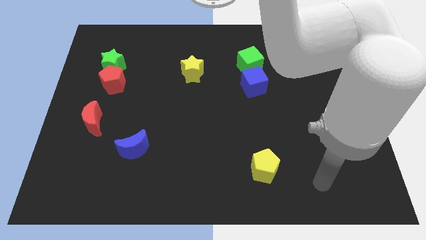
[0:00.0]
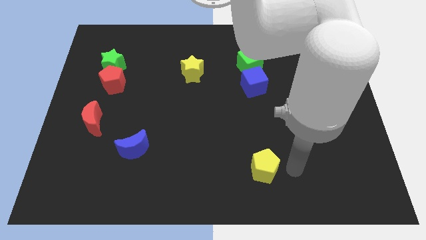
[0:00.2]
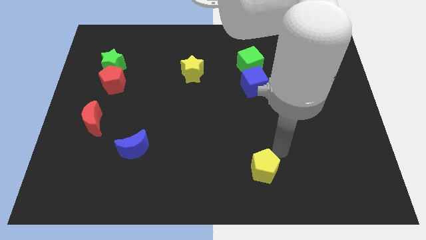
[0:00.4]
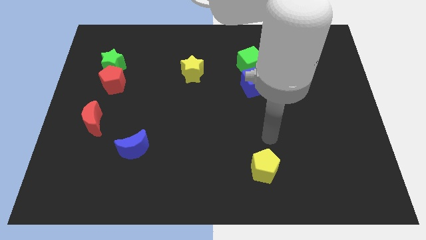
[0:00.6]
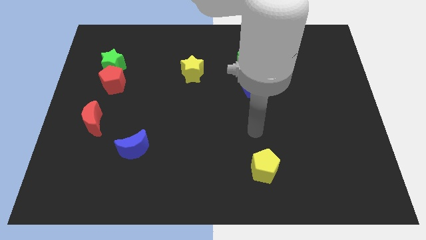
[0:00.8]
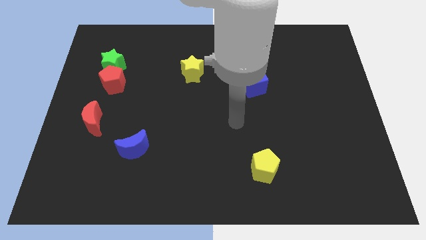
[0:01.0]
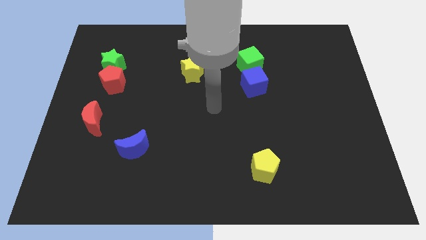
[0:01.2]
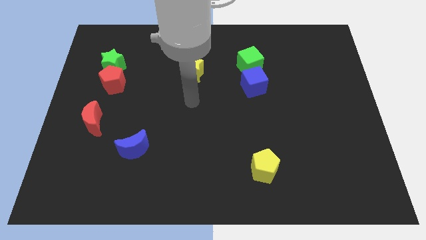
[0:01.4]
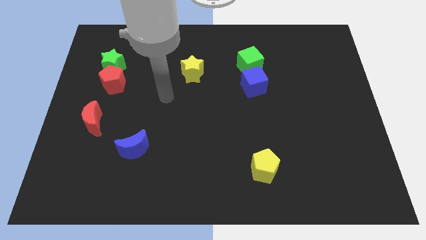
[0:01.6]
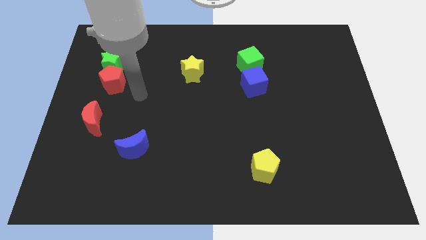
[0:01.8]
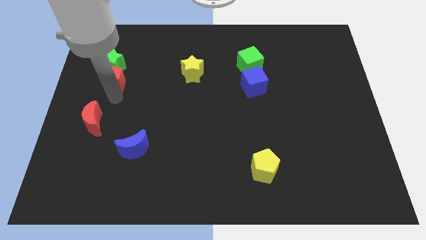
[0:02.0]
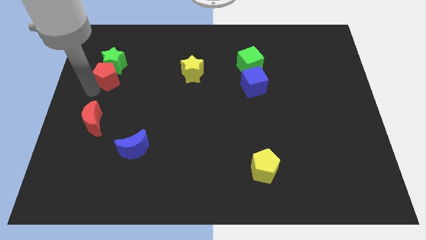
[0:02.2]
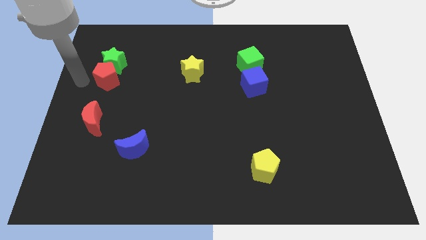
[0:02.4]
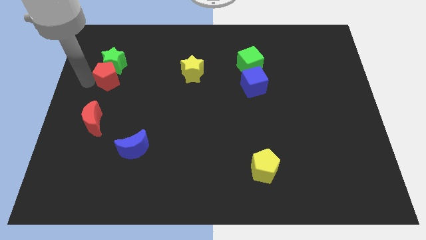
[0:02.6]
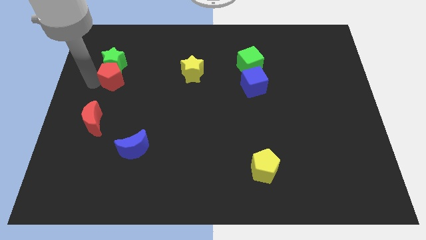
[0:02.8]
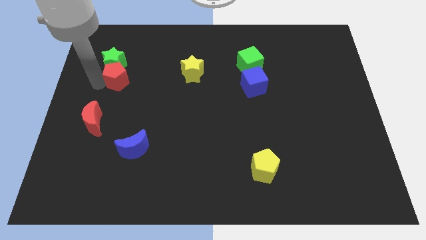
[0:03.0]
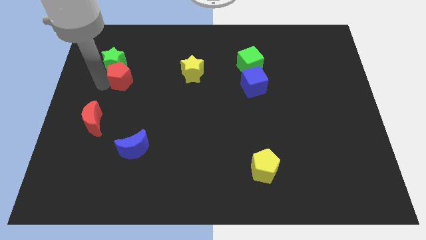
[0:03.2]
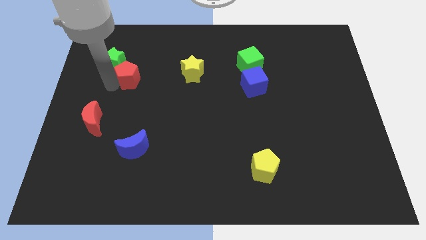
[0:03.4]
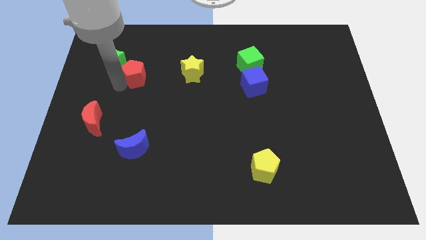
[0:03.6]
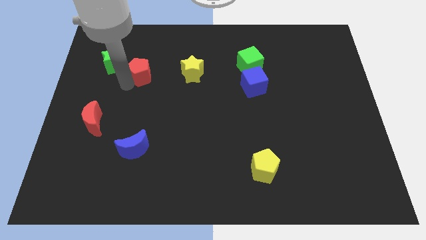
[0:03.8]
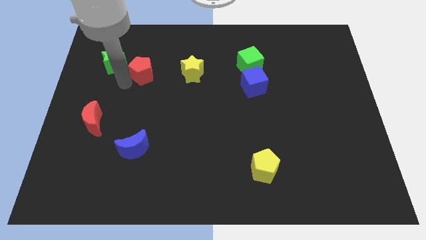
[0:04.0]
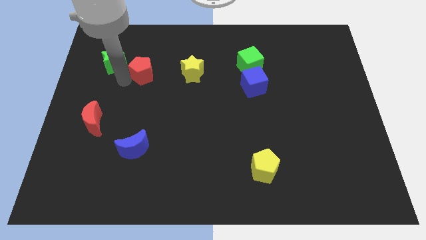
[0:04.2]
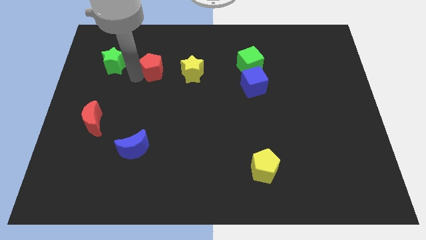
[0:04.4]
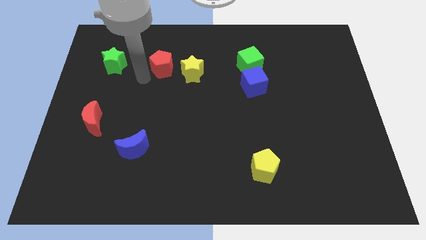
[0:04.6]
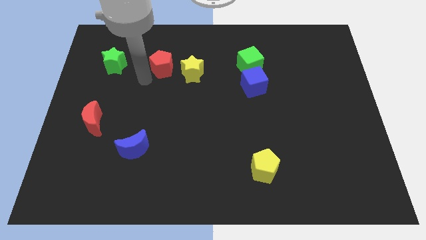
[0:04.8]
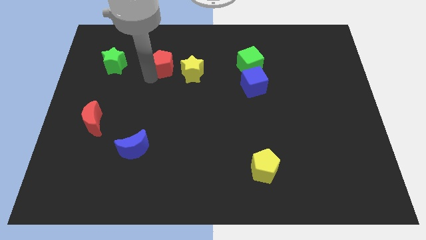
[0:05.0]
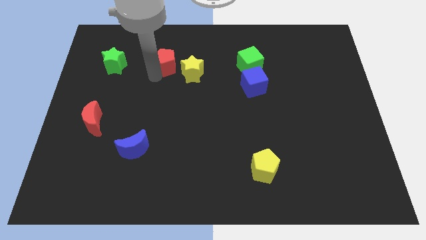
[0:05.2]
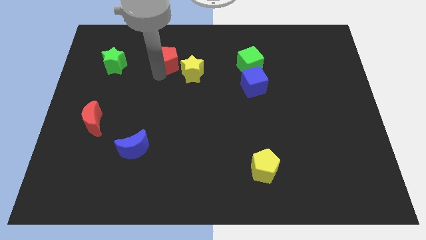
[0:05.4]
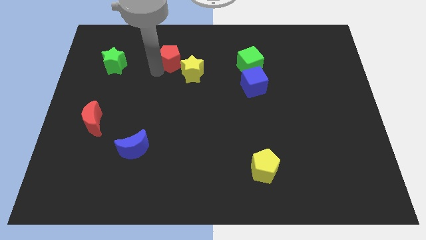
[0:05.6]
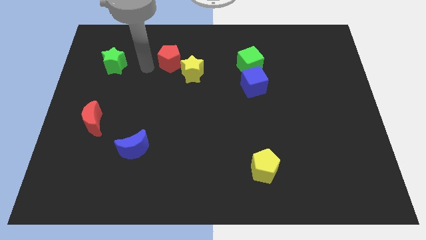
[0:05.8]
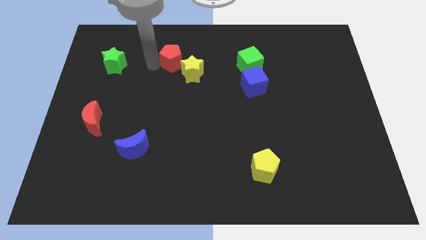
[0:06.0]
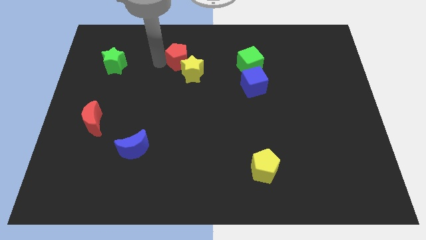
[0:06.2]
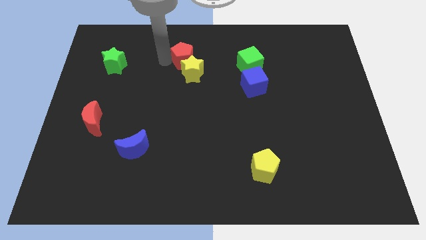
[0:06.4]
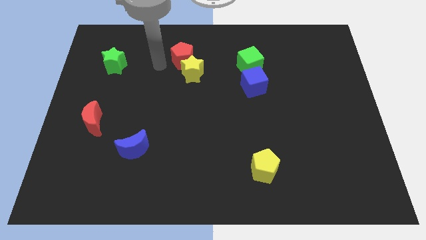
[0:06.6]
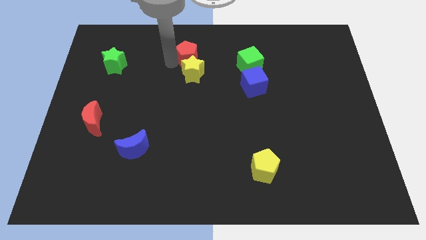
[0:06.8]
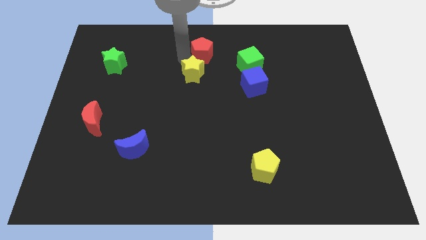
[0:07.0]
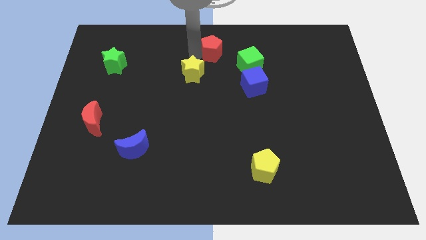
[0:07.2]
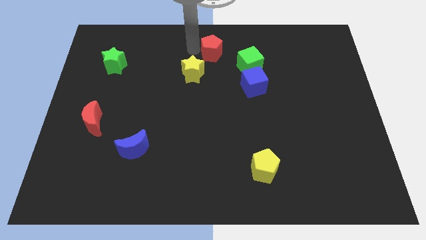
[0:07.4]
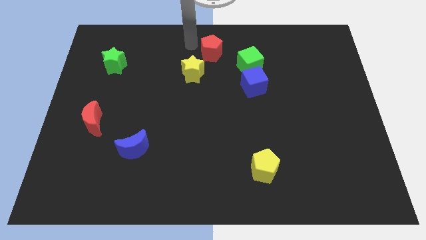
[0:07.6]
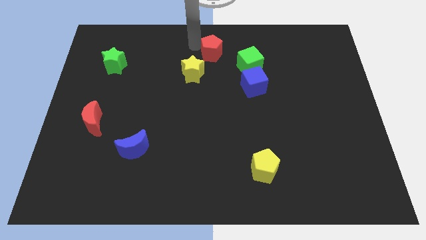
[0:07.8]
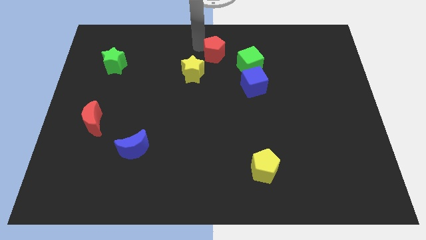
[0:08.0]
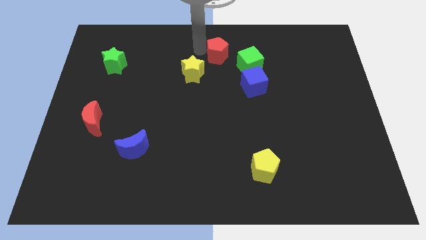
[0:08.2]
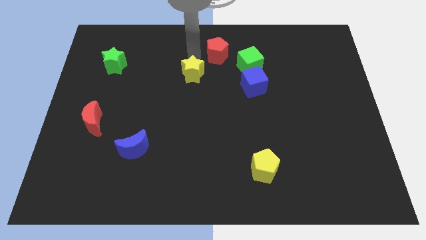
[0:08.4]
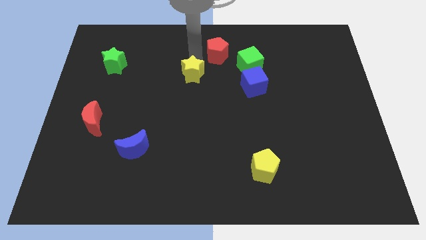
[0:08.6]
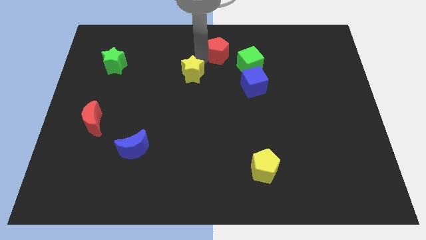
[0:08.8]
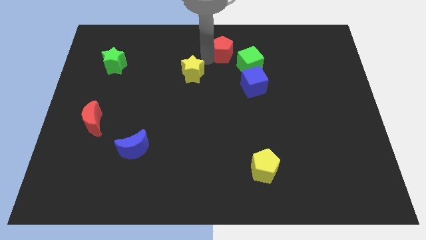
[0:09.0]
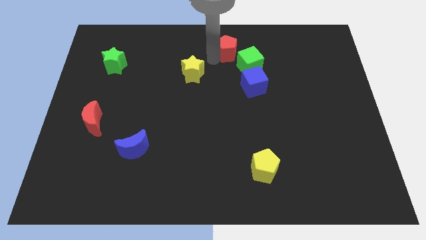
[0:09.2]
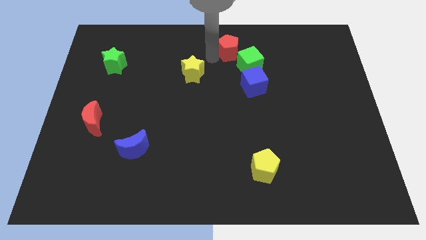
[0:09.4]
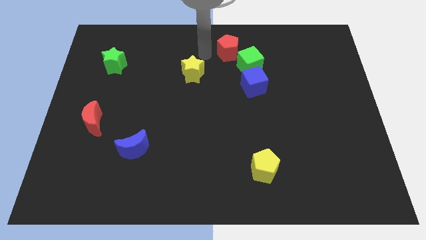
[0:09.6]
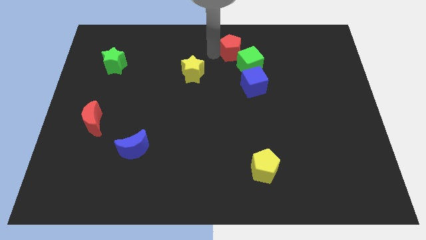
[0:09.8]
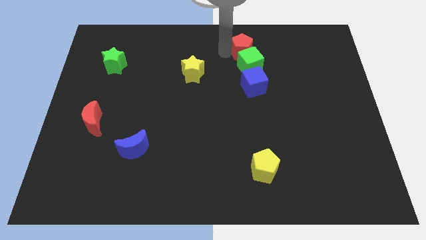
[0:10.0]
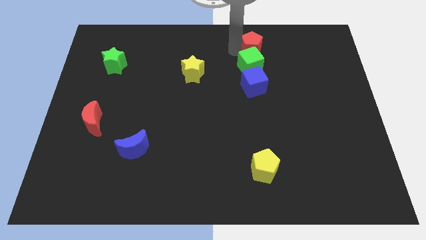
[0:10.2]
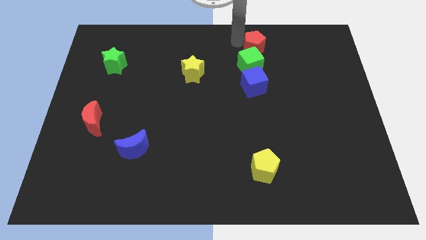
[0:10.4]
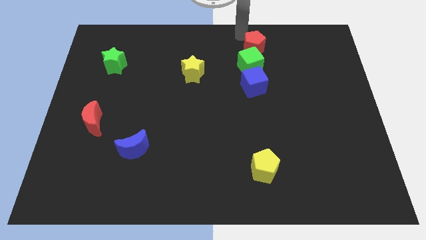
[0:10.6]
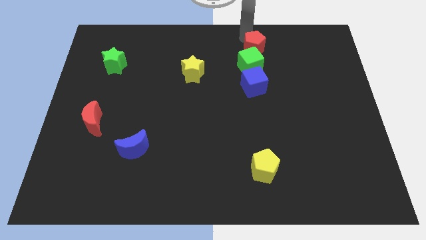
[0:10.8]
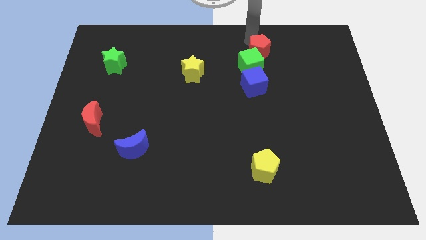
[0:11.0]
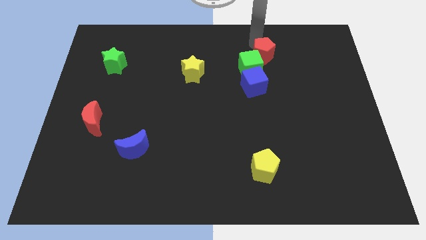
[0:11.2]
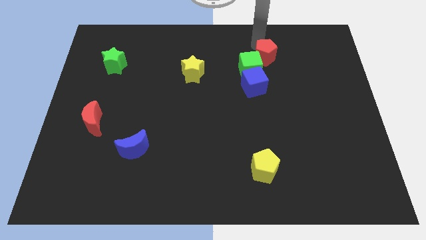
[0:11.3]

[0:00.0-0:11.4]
slide the red pentagon diagonally up and to the right of the blue cube

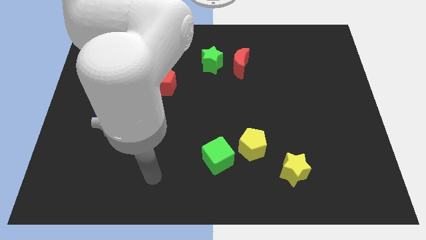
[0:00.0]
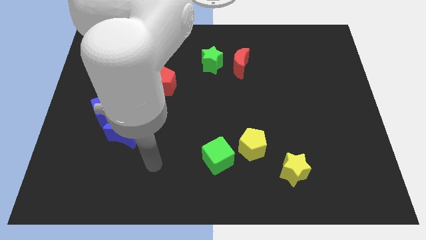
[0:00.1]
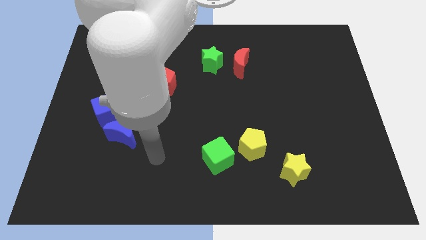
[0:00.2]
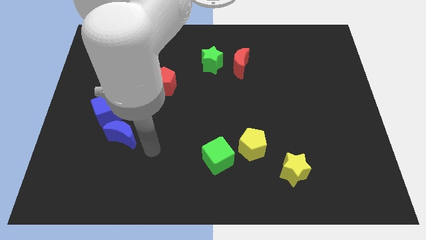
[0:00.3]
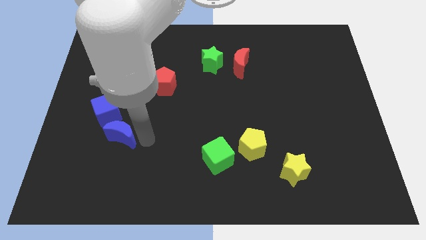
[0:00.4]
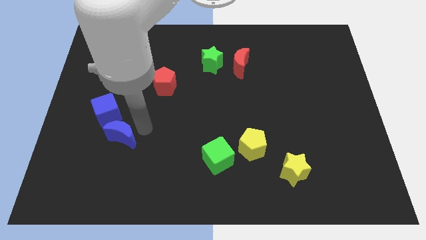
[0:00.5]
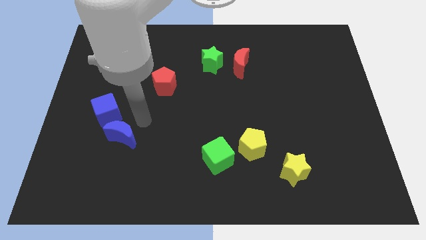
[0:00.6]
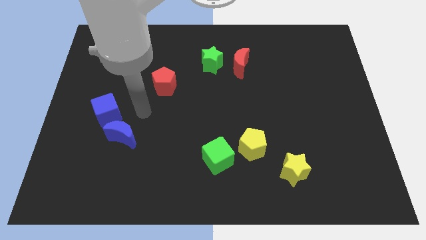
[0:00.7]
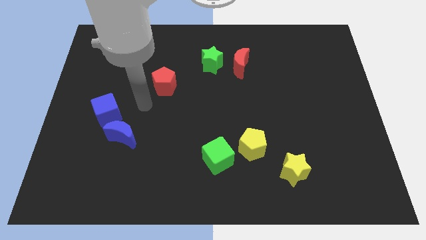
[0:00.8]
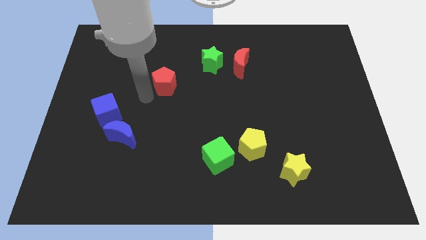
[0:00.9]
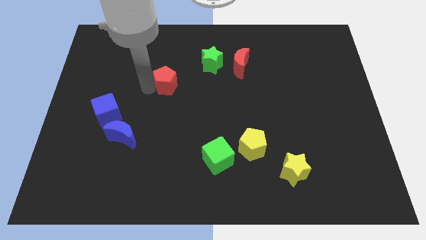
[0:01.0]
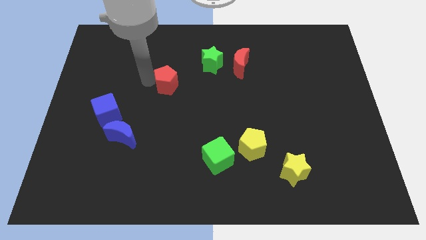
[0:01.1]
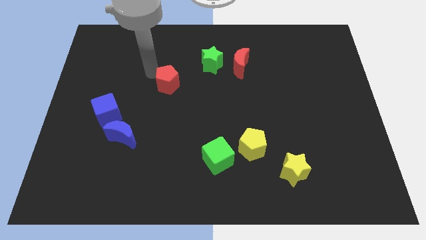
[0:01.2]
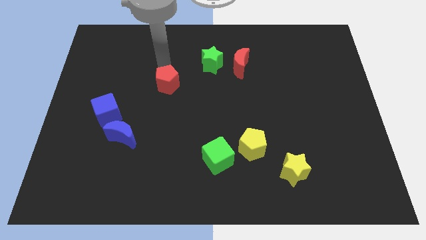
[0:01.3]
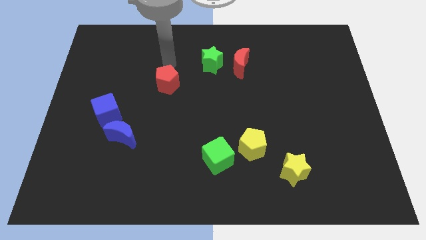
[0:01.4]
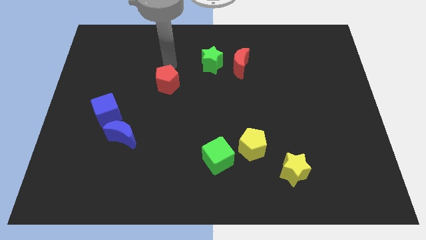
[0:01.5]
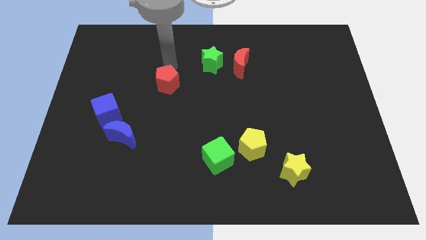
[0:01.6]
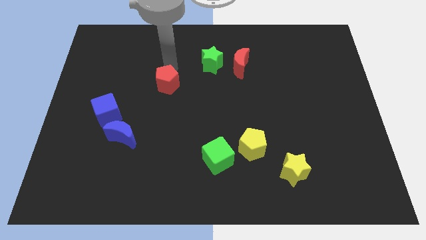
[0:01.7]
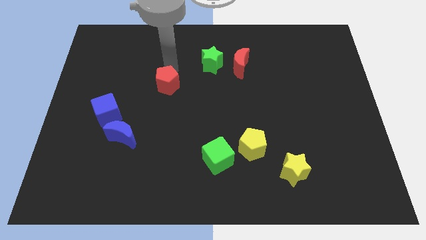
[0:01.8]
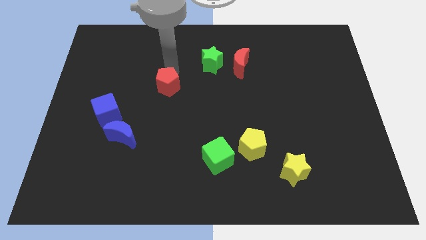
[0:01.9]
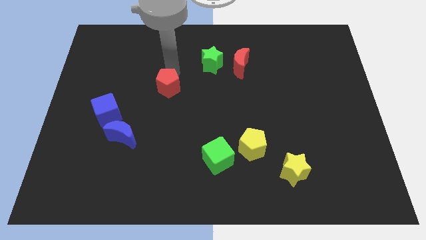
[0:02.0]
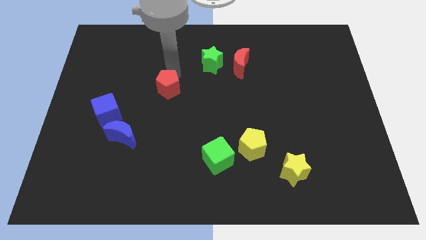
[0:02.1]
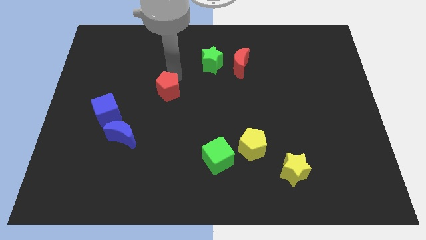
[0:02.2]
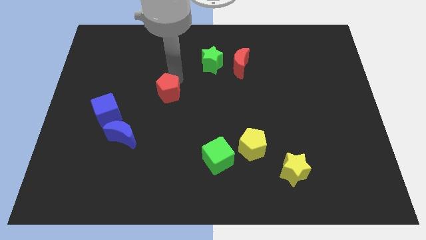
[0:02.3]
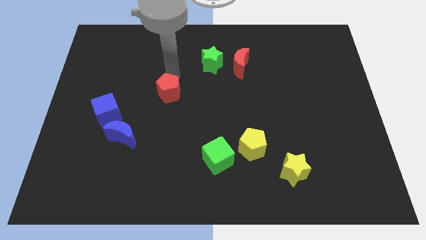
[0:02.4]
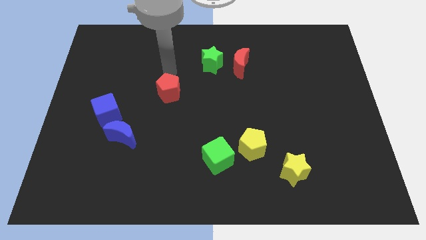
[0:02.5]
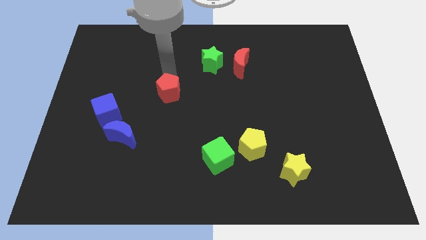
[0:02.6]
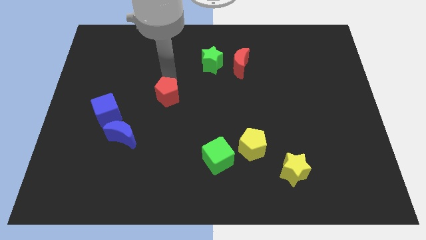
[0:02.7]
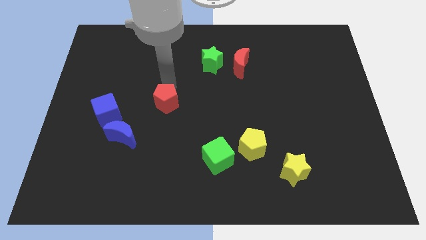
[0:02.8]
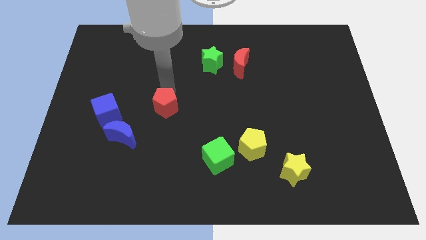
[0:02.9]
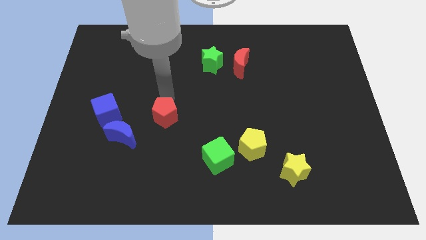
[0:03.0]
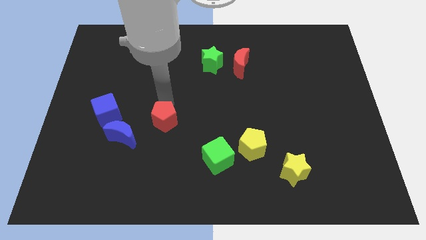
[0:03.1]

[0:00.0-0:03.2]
push the red pentagon just right of the blue moon
